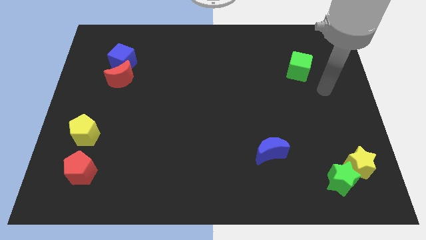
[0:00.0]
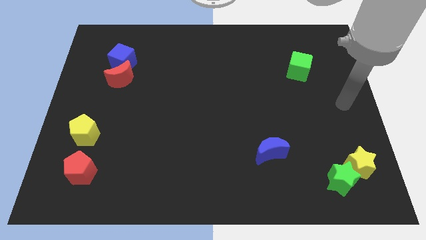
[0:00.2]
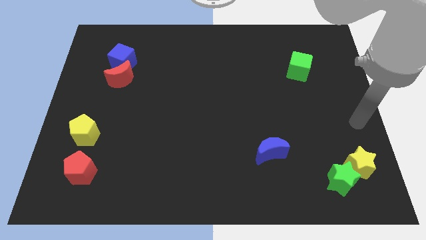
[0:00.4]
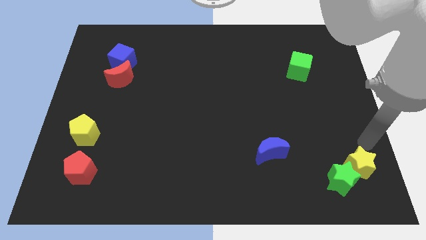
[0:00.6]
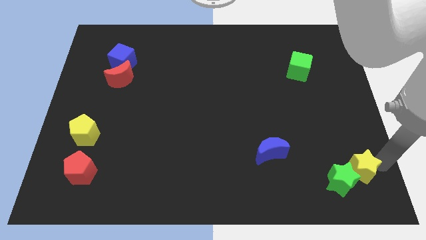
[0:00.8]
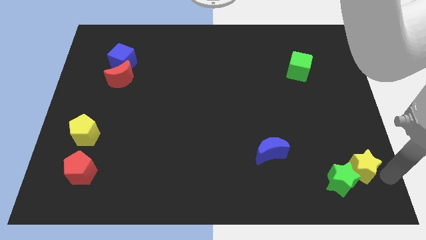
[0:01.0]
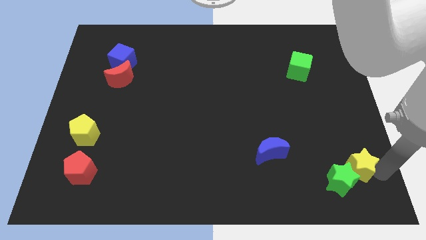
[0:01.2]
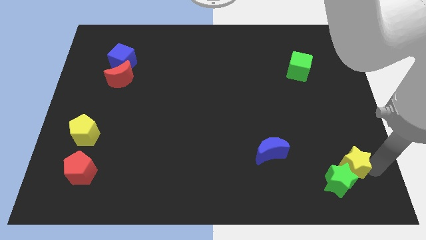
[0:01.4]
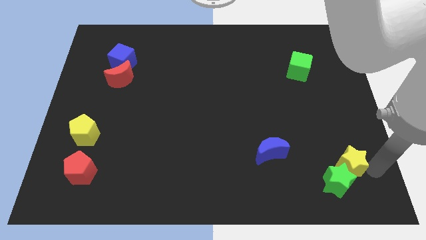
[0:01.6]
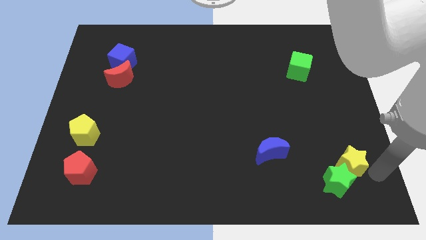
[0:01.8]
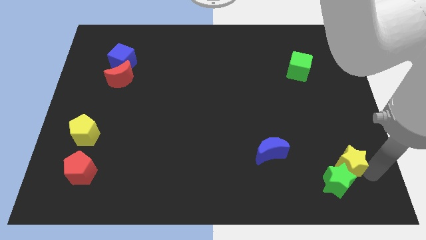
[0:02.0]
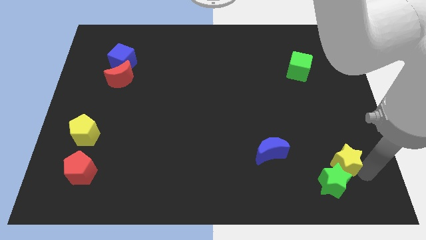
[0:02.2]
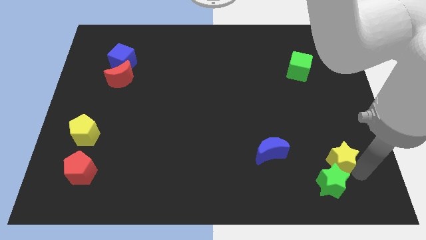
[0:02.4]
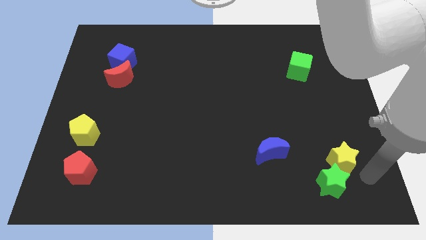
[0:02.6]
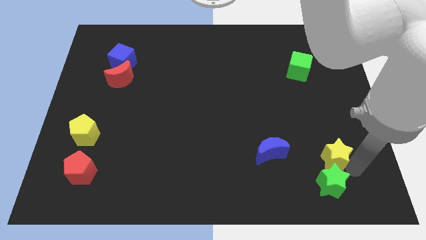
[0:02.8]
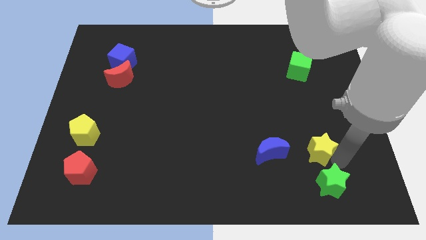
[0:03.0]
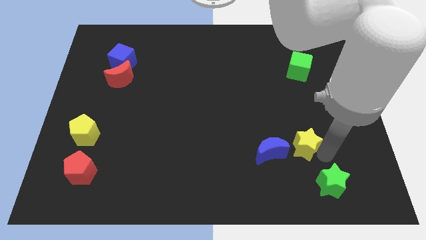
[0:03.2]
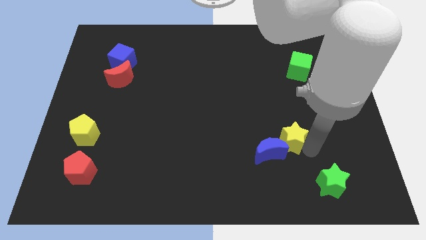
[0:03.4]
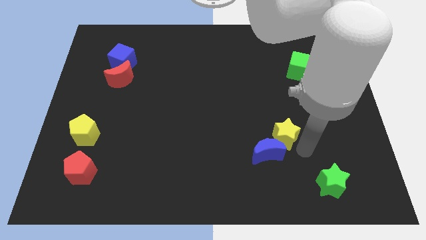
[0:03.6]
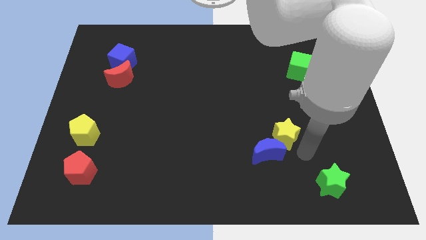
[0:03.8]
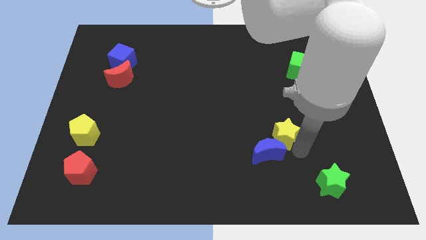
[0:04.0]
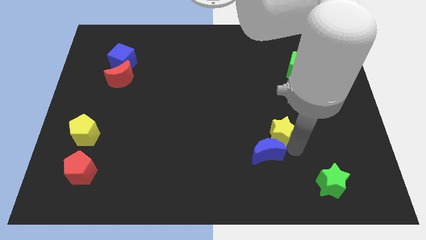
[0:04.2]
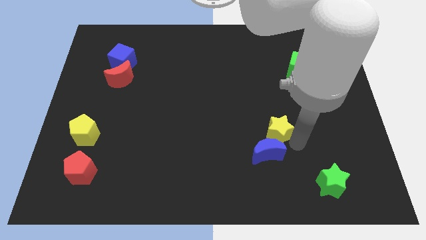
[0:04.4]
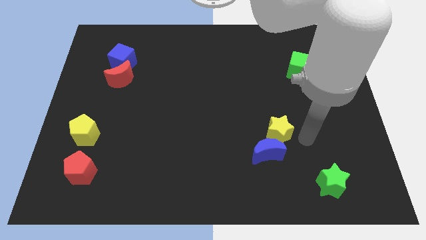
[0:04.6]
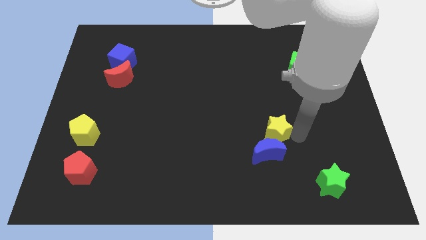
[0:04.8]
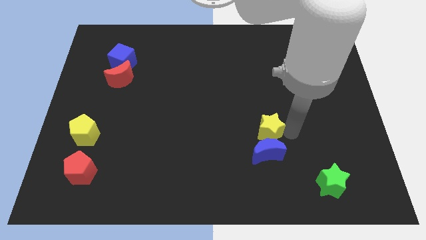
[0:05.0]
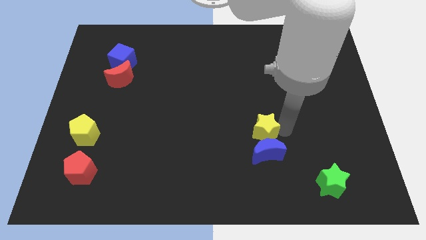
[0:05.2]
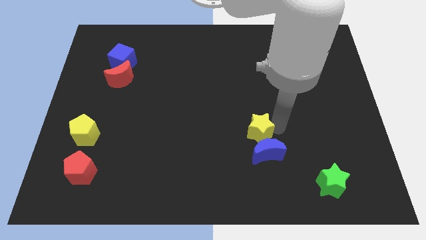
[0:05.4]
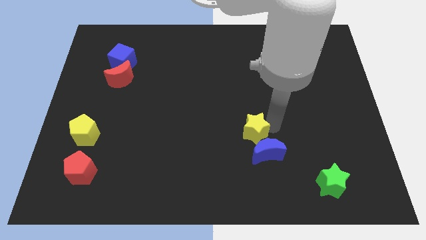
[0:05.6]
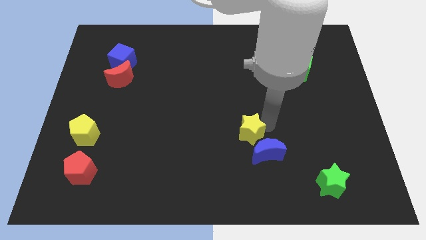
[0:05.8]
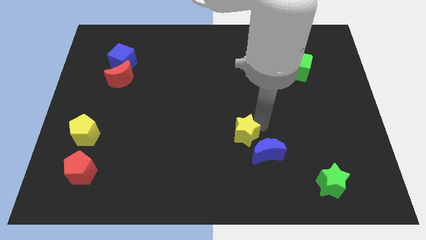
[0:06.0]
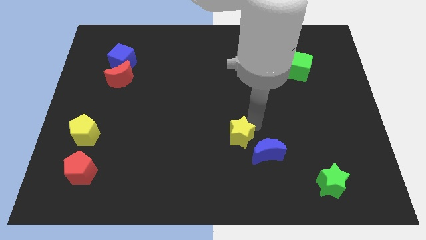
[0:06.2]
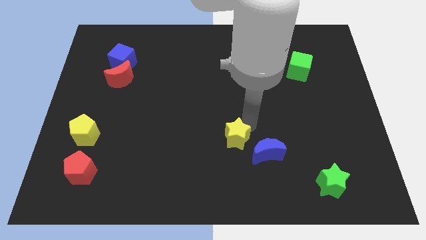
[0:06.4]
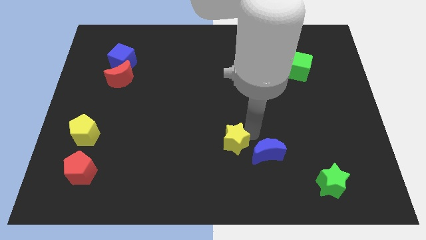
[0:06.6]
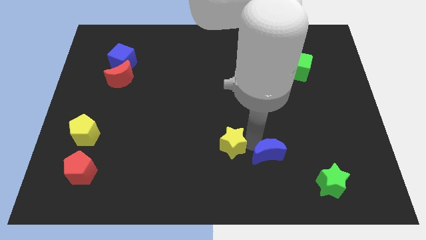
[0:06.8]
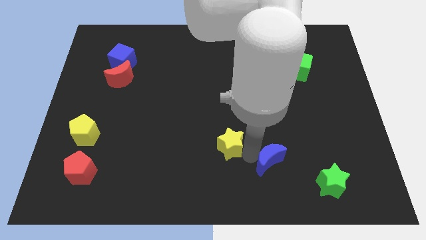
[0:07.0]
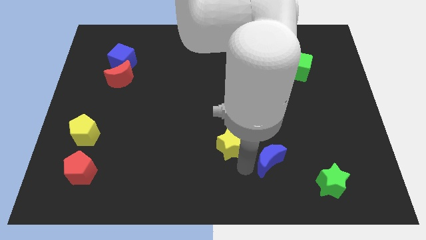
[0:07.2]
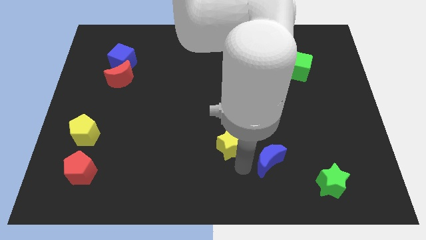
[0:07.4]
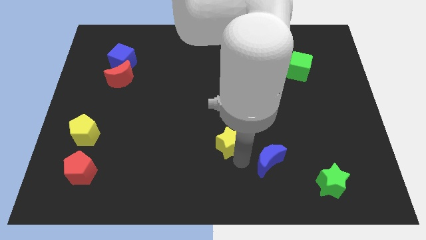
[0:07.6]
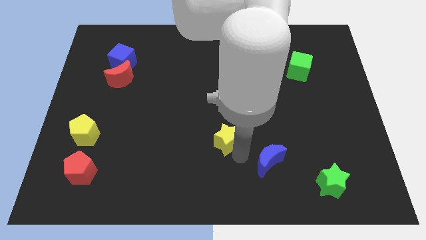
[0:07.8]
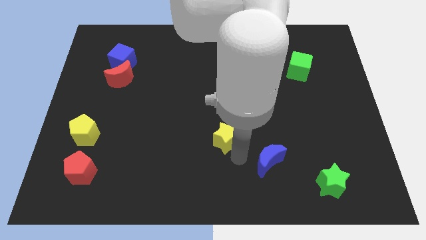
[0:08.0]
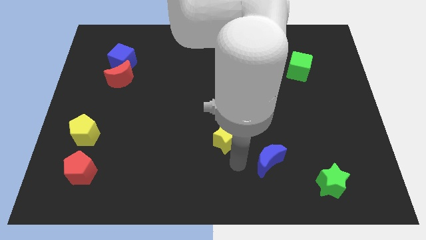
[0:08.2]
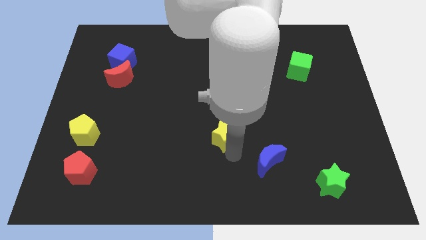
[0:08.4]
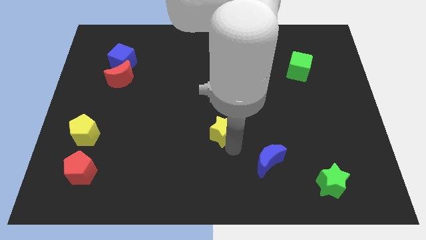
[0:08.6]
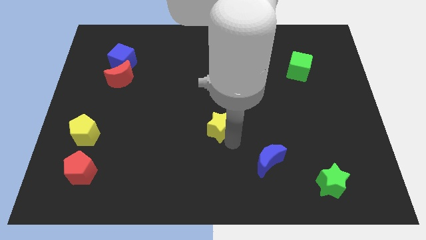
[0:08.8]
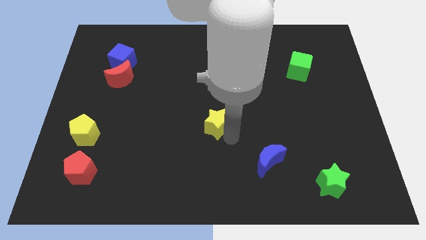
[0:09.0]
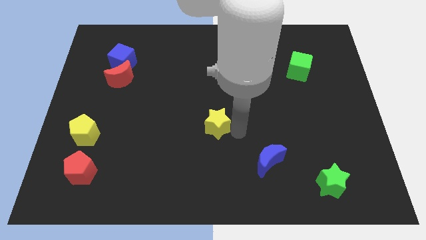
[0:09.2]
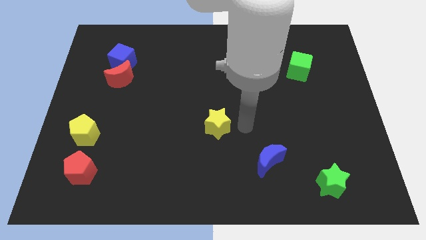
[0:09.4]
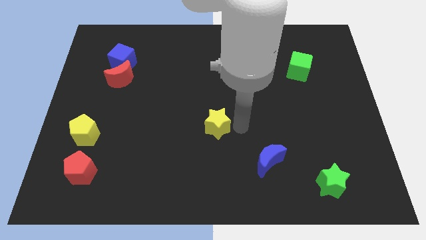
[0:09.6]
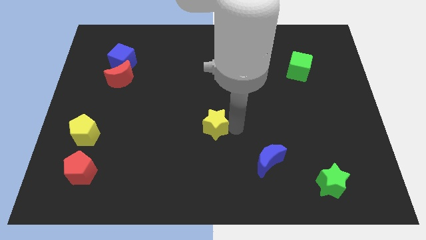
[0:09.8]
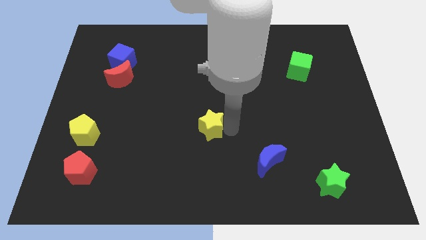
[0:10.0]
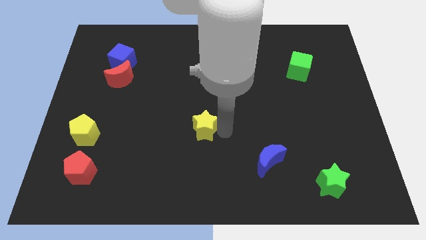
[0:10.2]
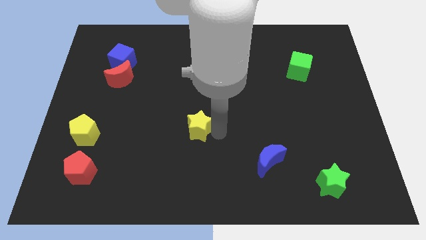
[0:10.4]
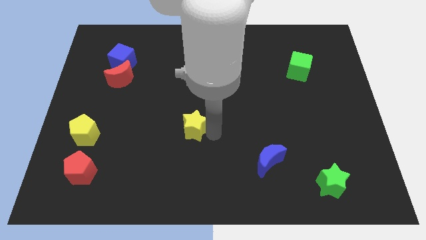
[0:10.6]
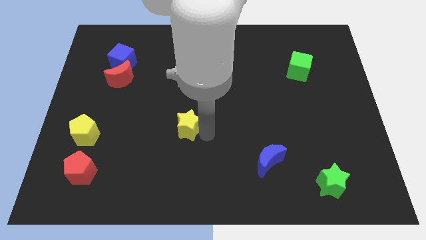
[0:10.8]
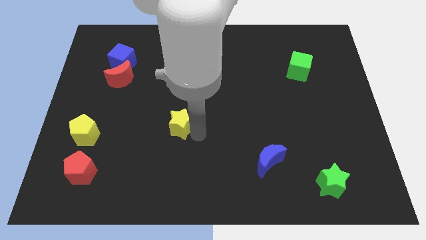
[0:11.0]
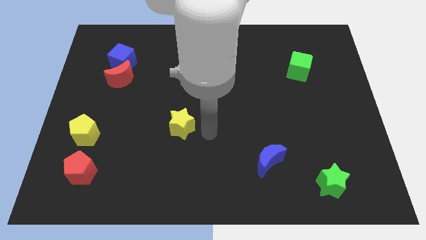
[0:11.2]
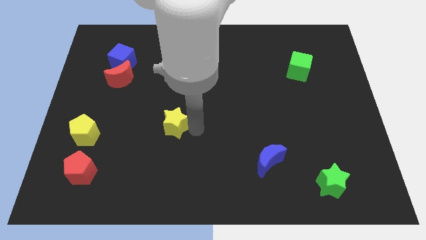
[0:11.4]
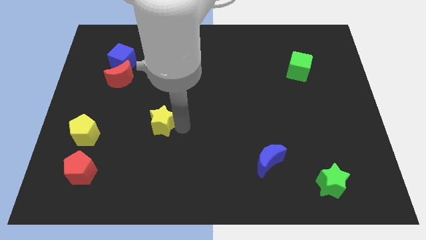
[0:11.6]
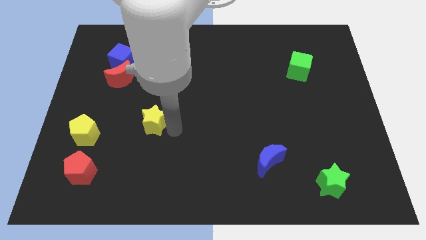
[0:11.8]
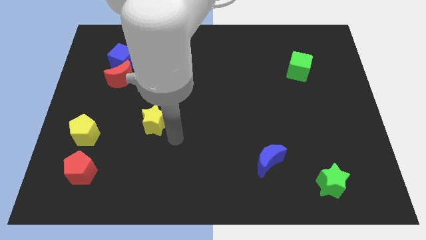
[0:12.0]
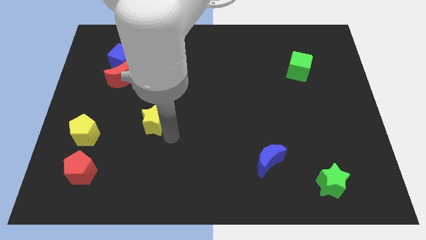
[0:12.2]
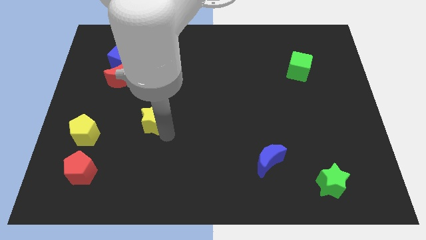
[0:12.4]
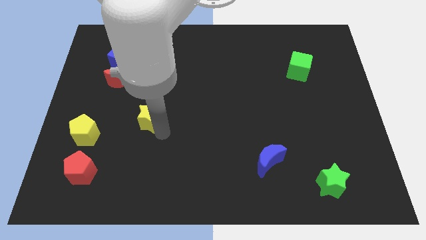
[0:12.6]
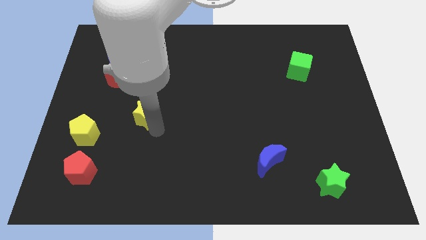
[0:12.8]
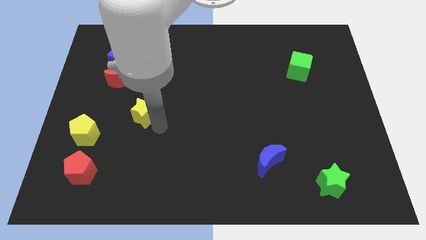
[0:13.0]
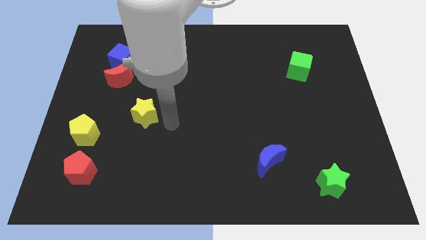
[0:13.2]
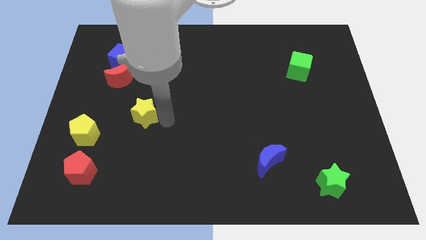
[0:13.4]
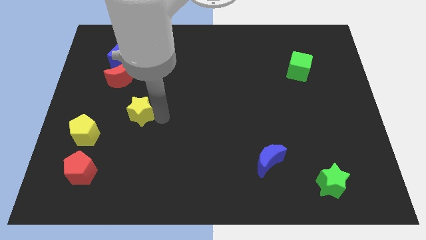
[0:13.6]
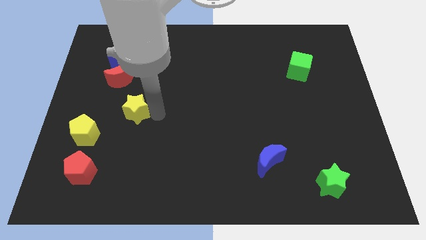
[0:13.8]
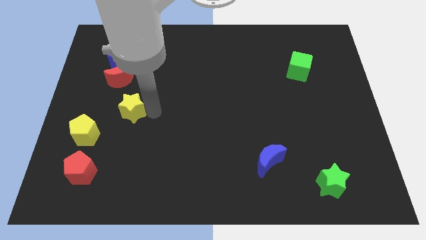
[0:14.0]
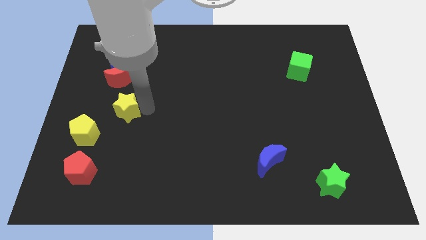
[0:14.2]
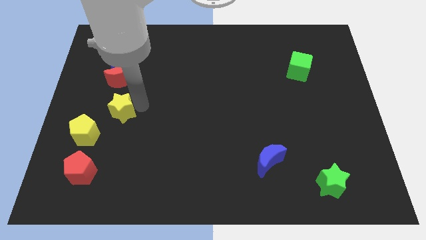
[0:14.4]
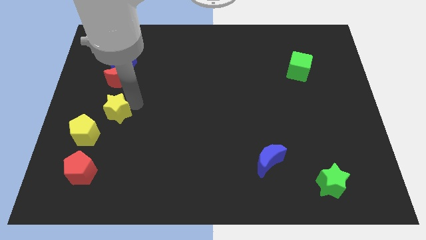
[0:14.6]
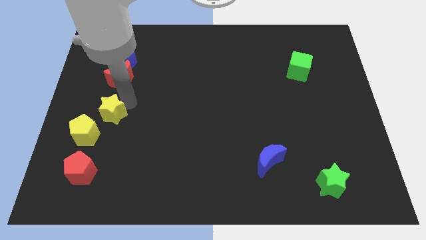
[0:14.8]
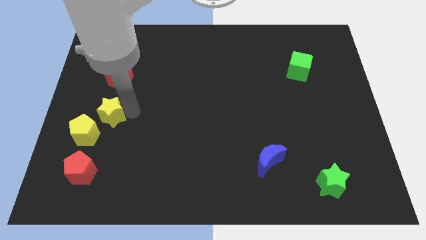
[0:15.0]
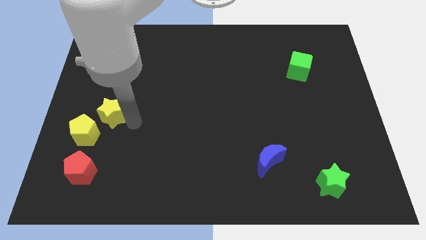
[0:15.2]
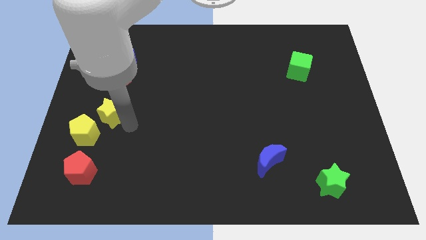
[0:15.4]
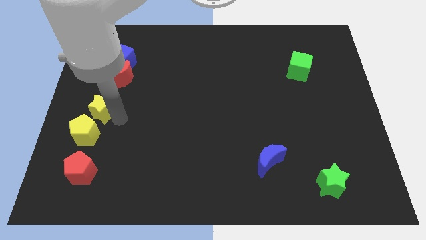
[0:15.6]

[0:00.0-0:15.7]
put the yellow star to the left side of the board
